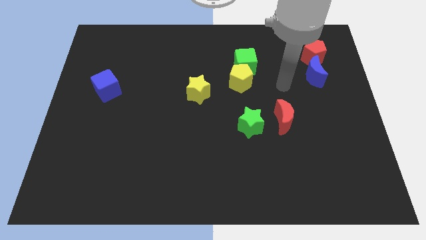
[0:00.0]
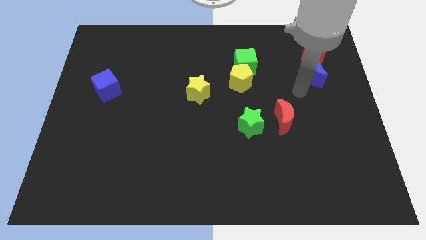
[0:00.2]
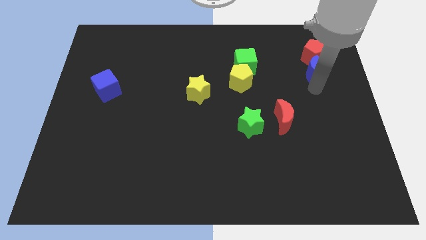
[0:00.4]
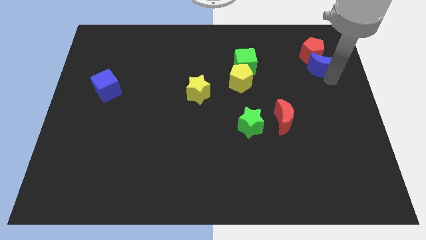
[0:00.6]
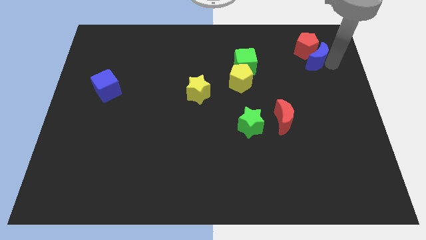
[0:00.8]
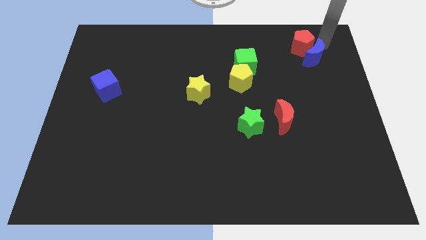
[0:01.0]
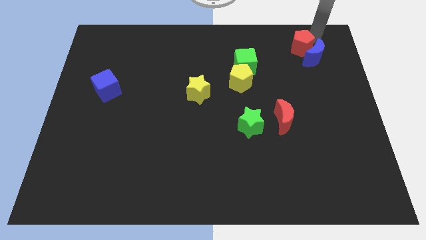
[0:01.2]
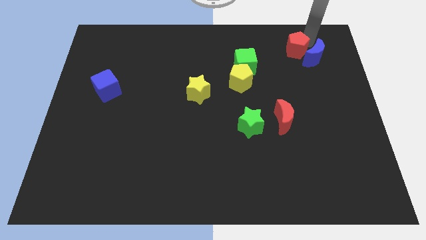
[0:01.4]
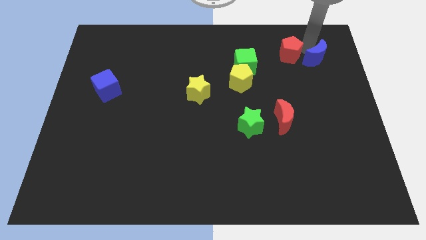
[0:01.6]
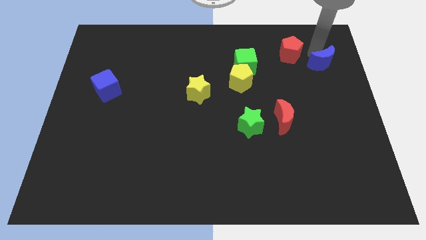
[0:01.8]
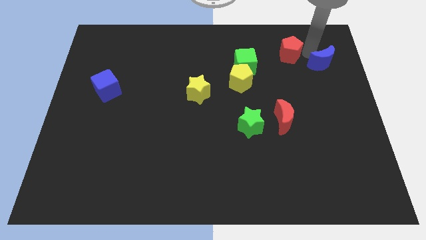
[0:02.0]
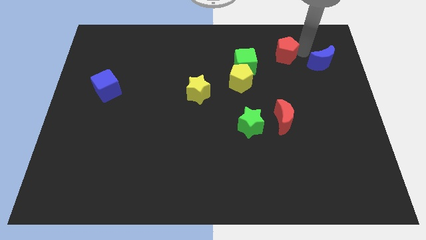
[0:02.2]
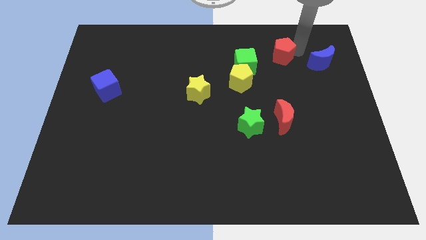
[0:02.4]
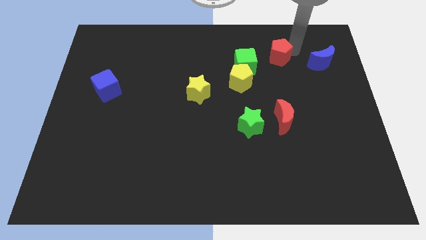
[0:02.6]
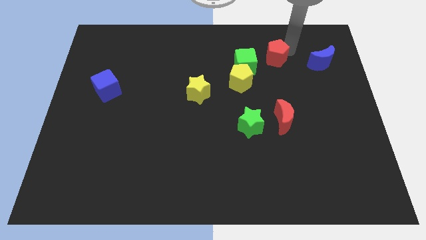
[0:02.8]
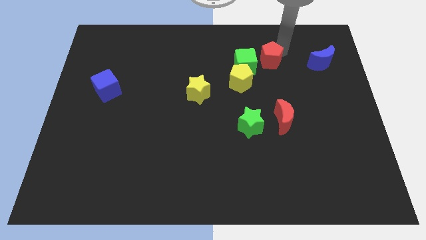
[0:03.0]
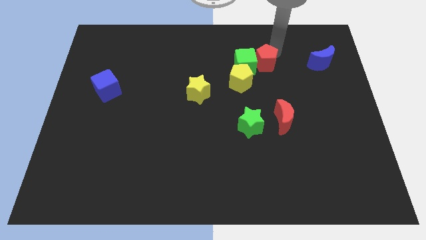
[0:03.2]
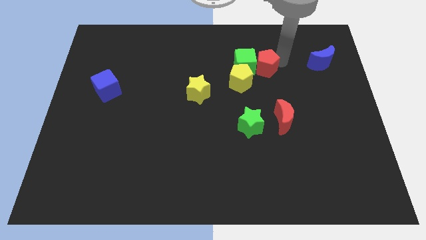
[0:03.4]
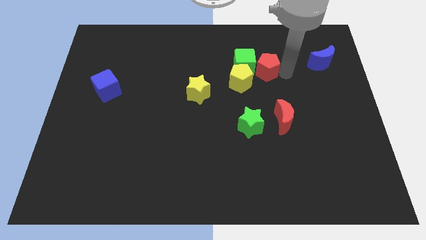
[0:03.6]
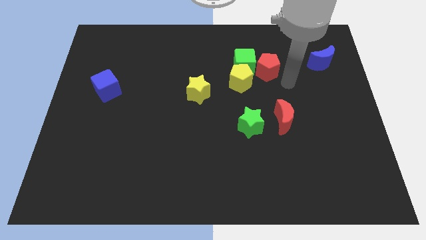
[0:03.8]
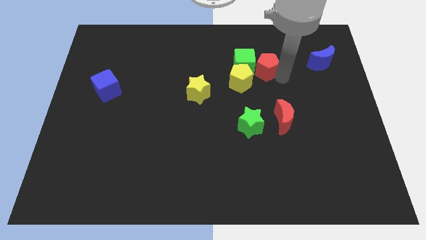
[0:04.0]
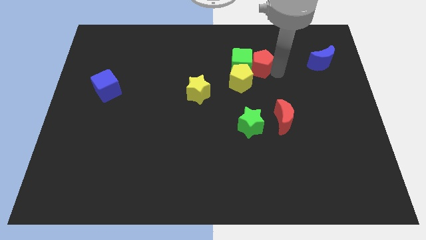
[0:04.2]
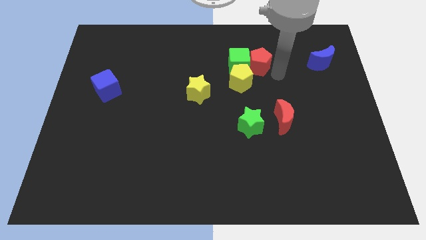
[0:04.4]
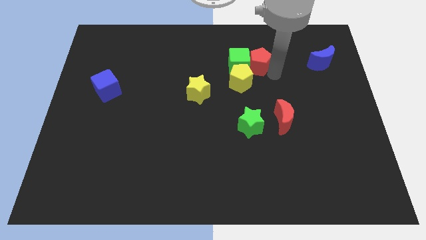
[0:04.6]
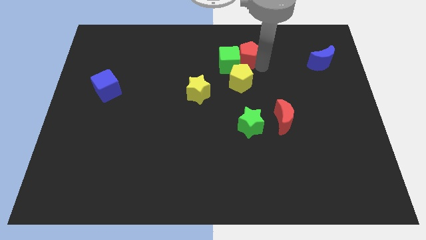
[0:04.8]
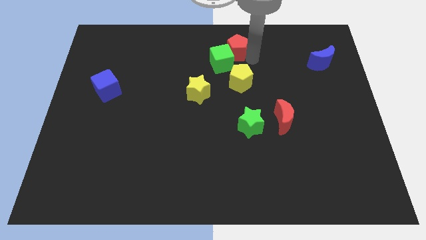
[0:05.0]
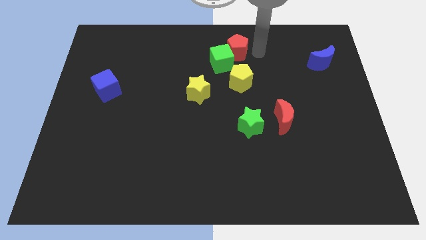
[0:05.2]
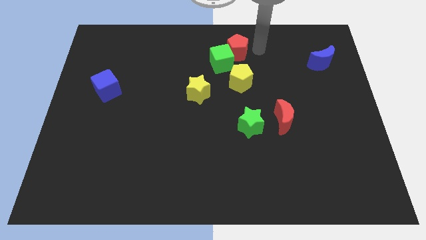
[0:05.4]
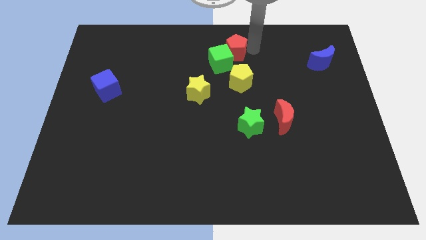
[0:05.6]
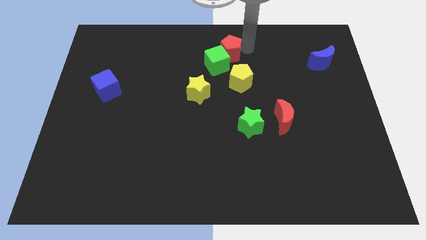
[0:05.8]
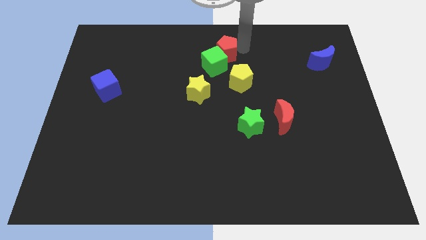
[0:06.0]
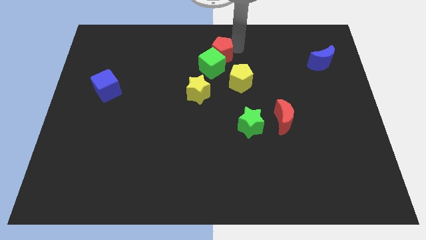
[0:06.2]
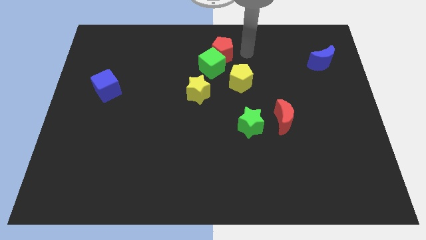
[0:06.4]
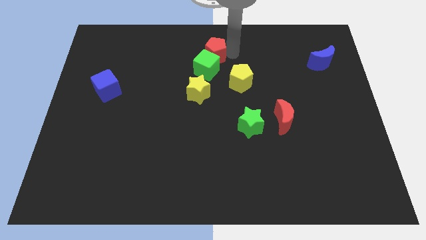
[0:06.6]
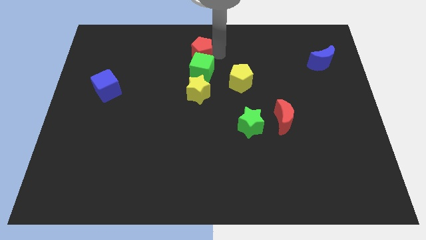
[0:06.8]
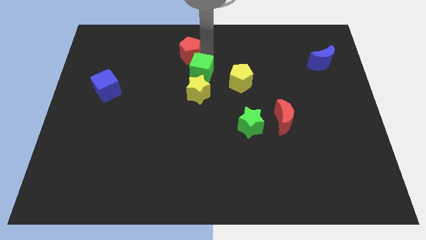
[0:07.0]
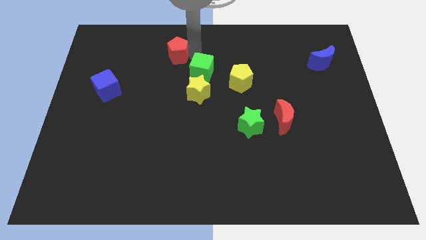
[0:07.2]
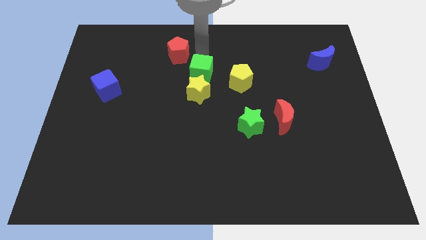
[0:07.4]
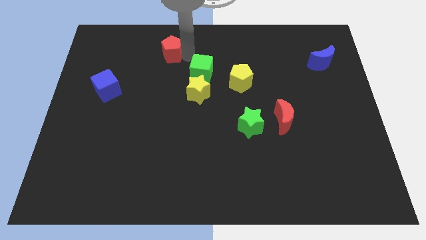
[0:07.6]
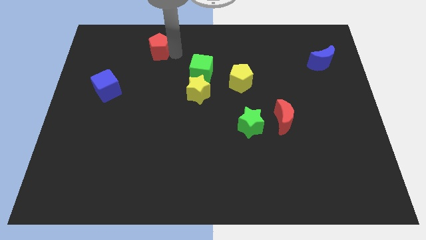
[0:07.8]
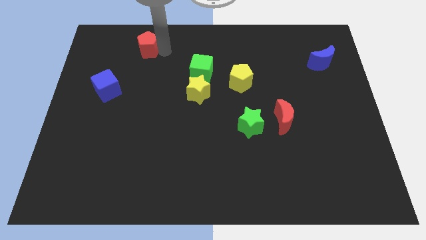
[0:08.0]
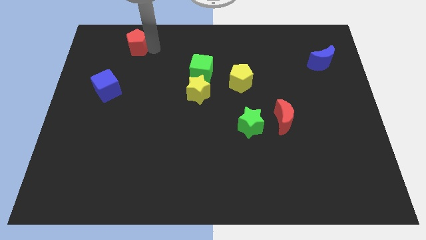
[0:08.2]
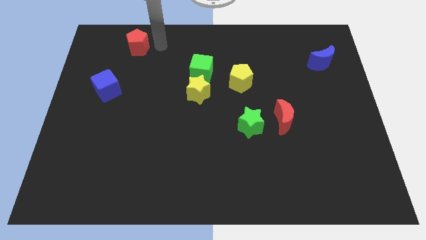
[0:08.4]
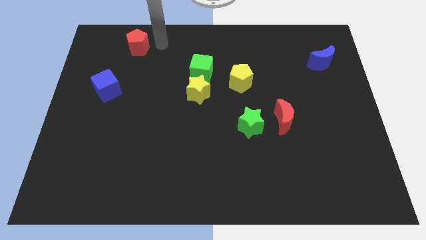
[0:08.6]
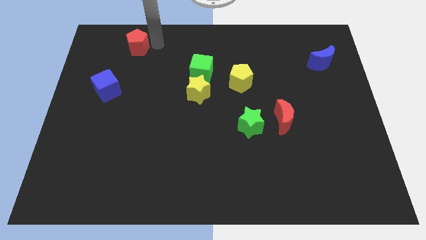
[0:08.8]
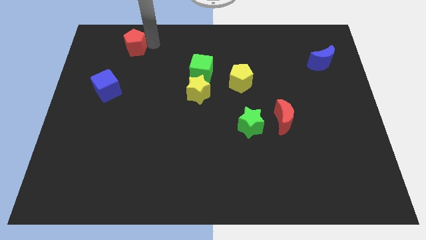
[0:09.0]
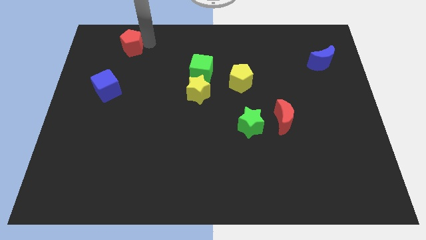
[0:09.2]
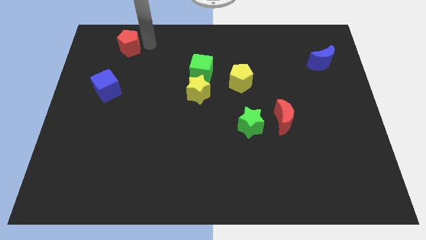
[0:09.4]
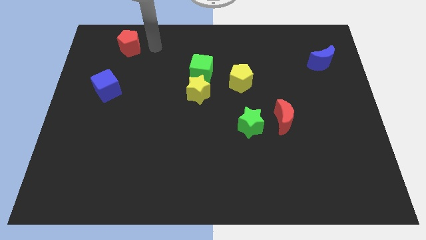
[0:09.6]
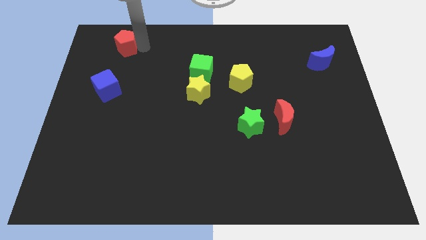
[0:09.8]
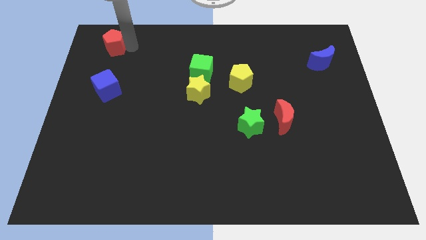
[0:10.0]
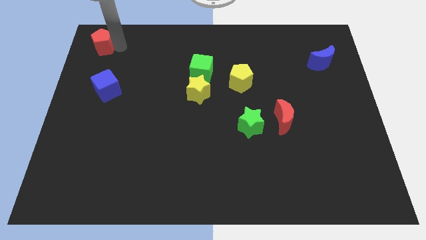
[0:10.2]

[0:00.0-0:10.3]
push the red pentagon to the top left of the board

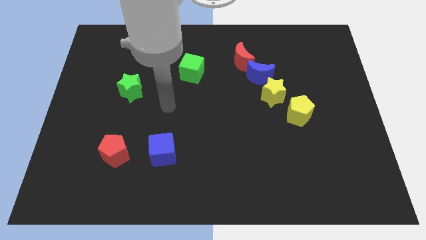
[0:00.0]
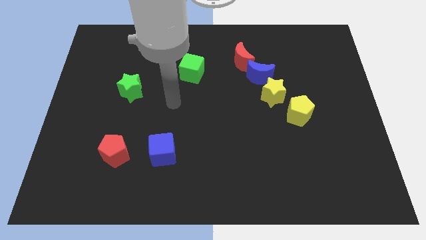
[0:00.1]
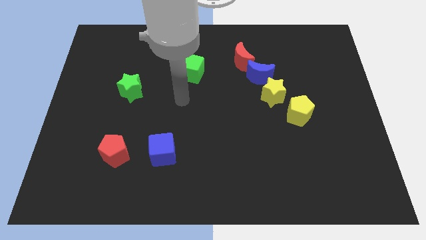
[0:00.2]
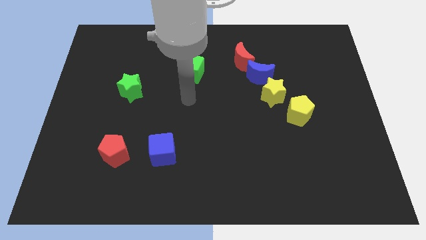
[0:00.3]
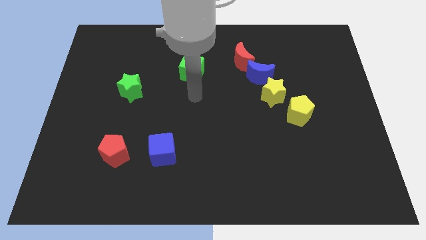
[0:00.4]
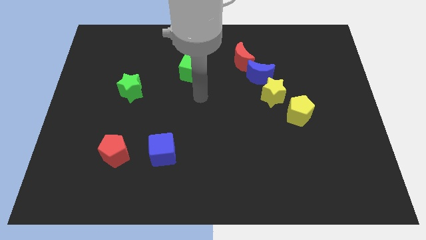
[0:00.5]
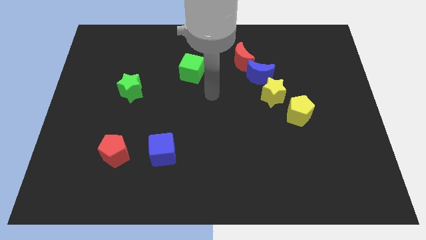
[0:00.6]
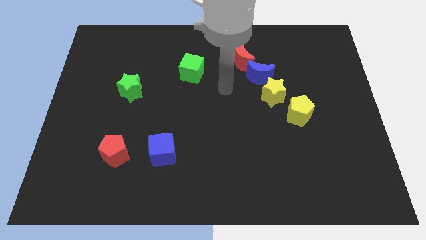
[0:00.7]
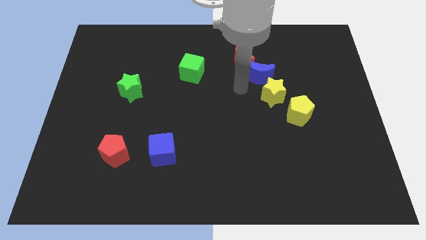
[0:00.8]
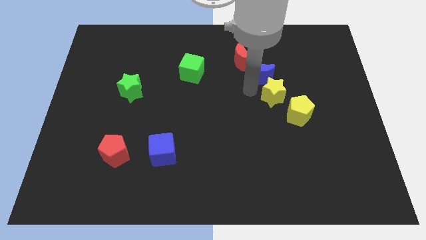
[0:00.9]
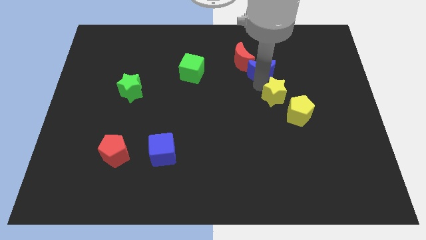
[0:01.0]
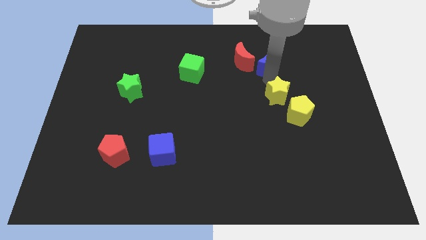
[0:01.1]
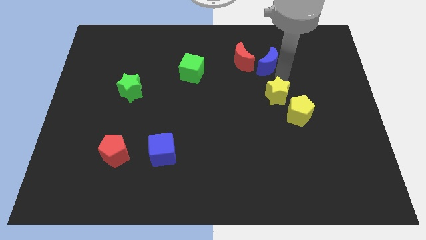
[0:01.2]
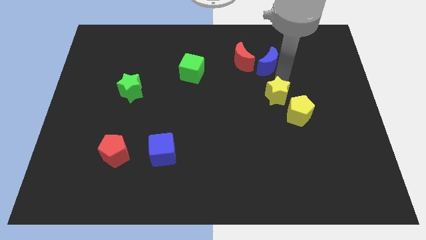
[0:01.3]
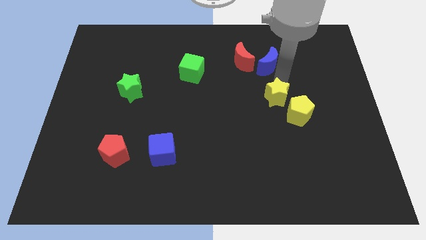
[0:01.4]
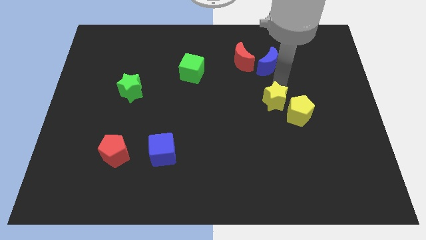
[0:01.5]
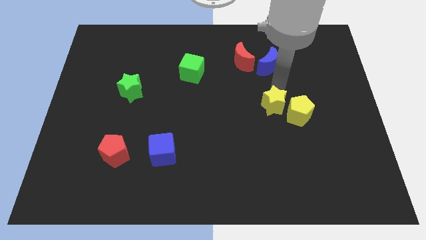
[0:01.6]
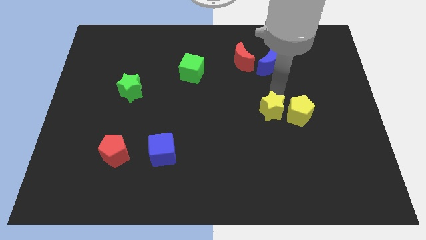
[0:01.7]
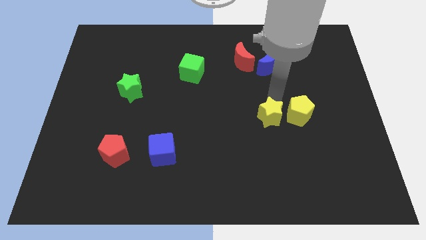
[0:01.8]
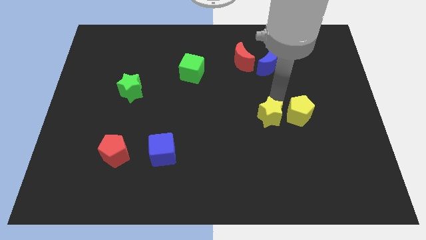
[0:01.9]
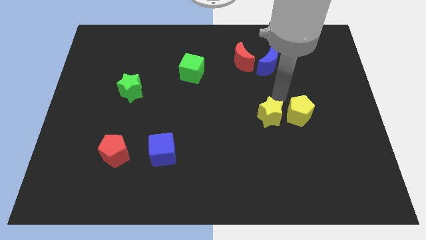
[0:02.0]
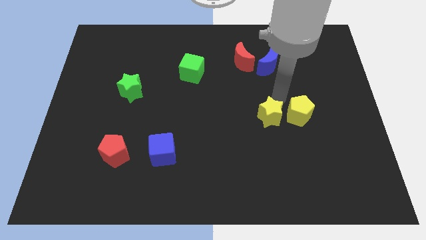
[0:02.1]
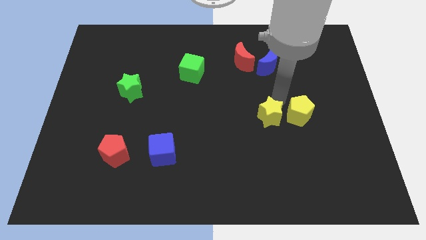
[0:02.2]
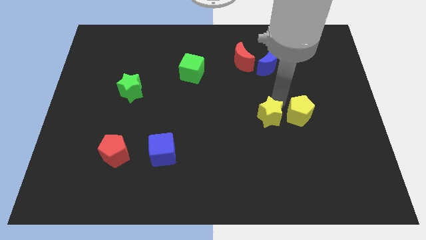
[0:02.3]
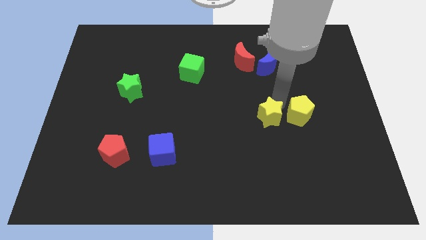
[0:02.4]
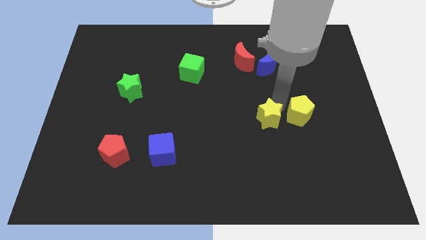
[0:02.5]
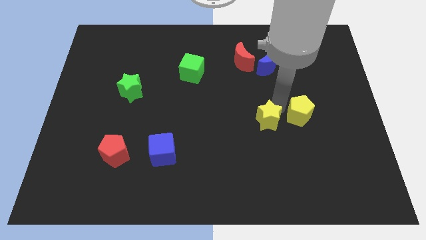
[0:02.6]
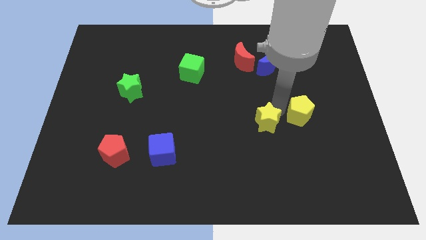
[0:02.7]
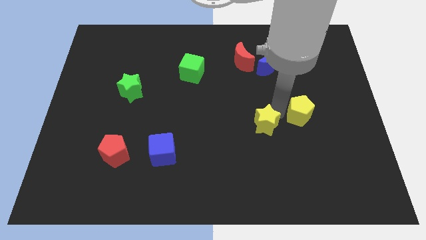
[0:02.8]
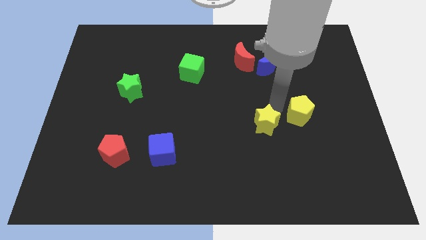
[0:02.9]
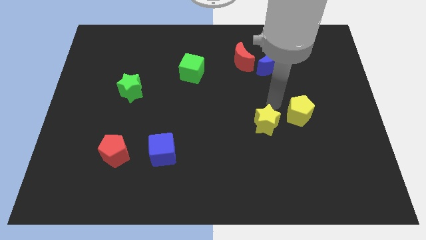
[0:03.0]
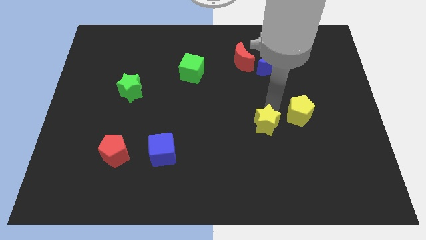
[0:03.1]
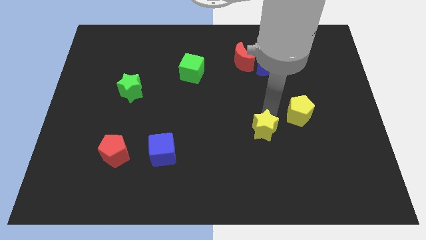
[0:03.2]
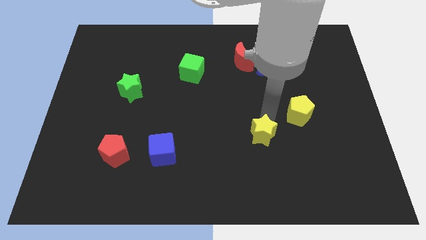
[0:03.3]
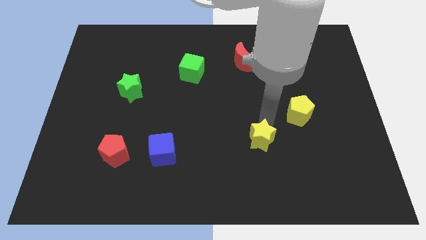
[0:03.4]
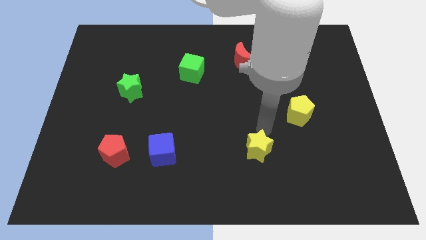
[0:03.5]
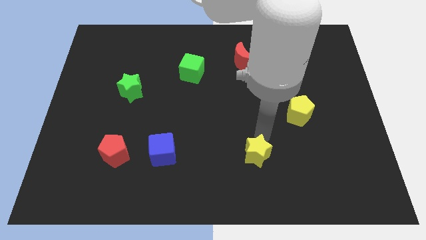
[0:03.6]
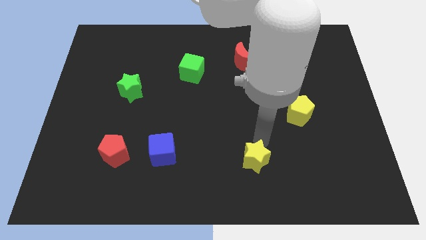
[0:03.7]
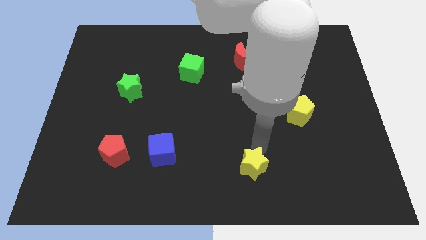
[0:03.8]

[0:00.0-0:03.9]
move the yellow star to the bottom side
